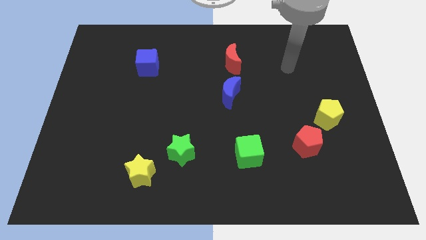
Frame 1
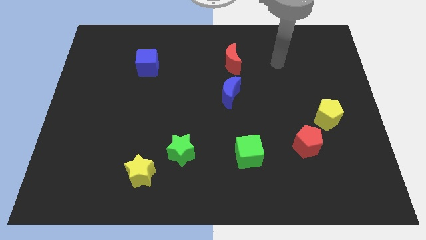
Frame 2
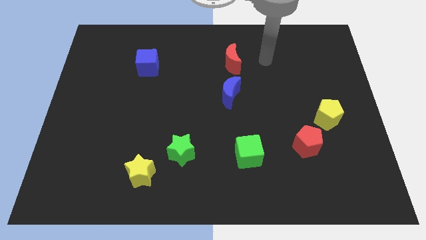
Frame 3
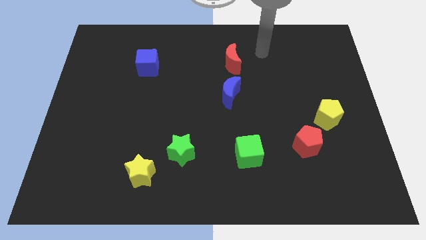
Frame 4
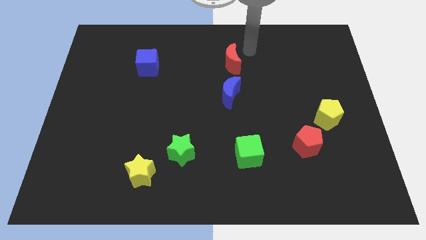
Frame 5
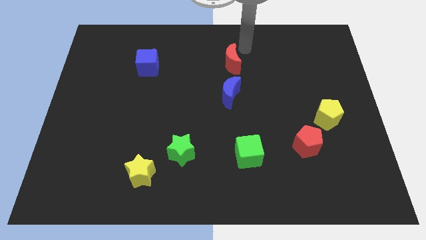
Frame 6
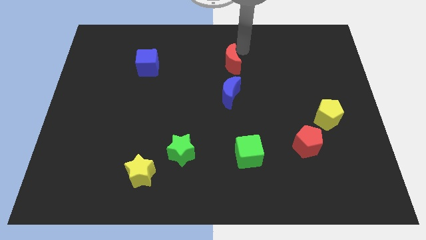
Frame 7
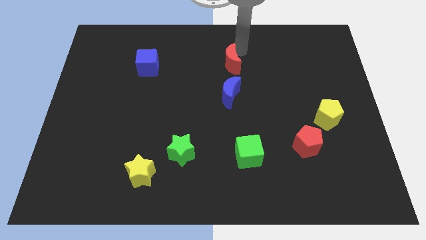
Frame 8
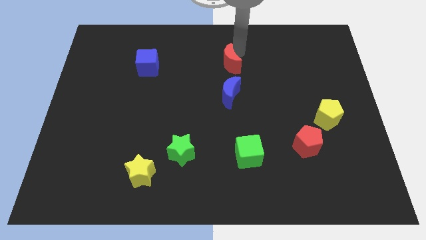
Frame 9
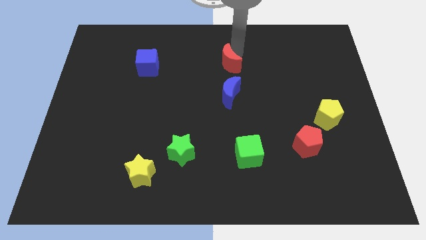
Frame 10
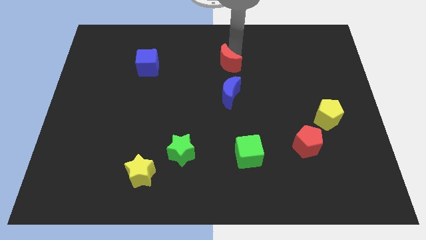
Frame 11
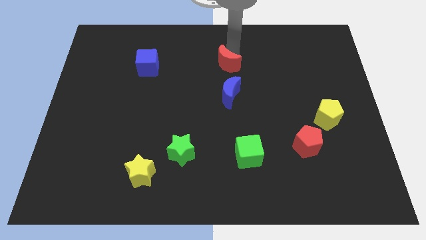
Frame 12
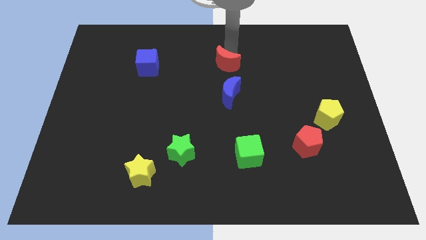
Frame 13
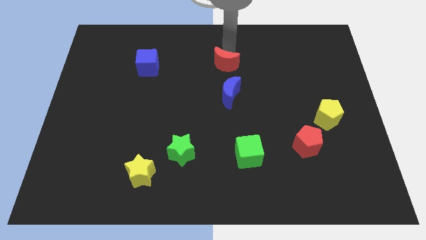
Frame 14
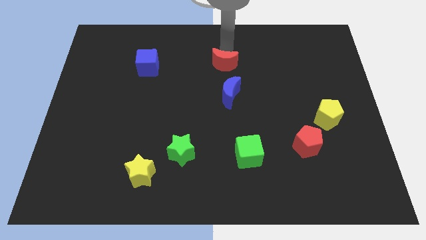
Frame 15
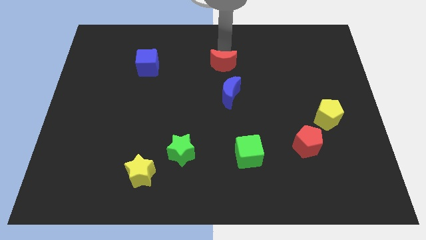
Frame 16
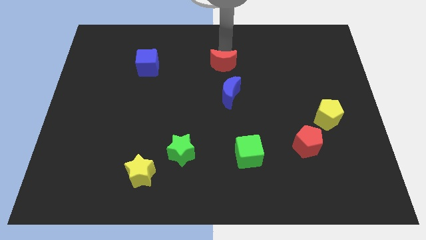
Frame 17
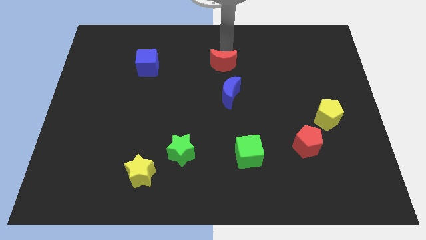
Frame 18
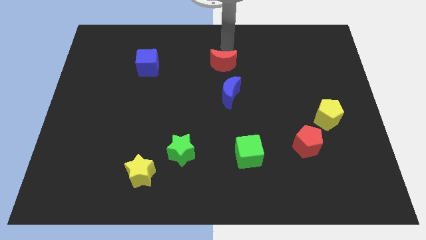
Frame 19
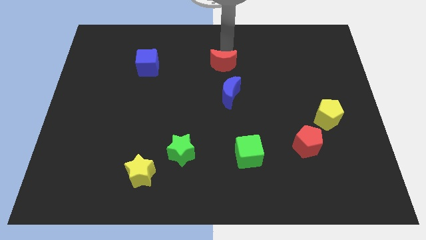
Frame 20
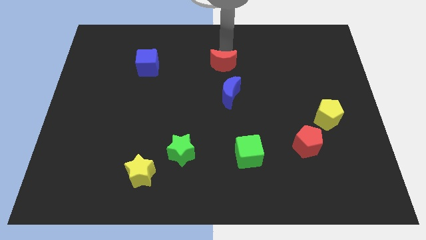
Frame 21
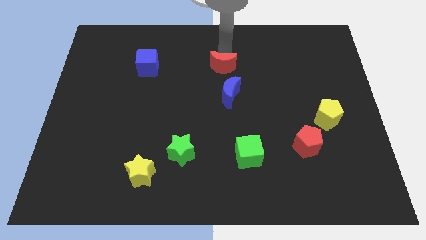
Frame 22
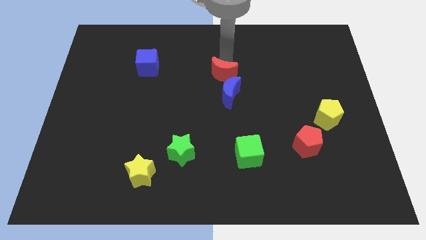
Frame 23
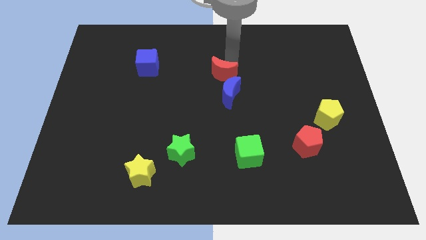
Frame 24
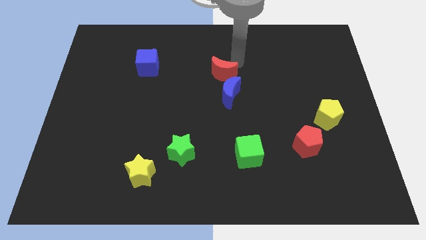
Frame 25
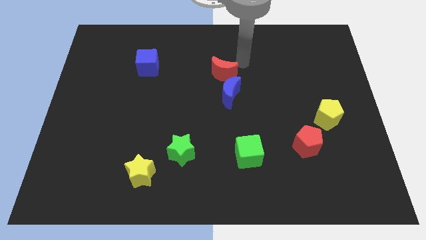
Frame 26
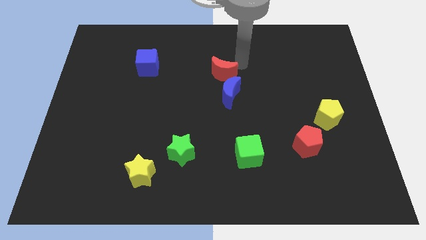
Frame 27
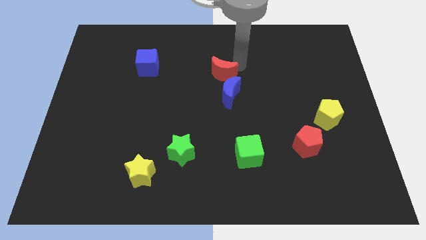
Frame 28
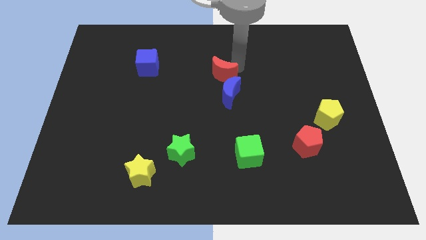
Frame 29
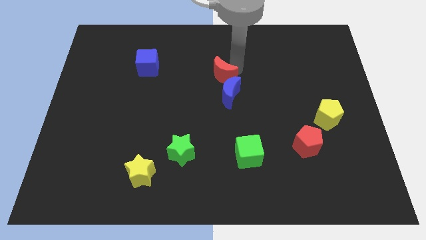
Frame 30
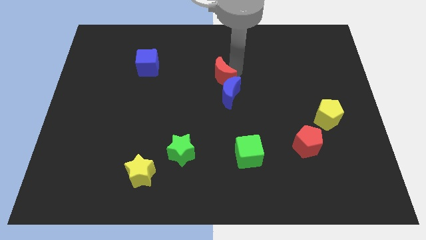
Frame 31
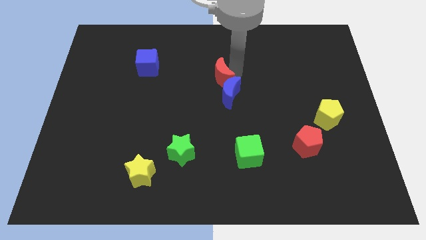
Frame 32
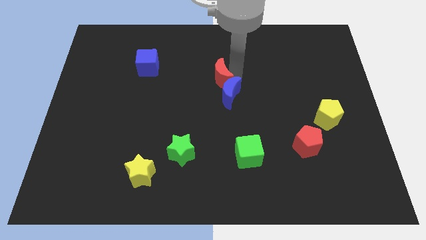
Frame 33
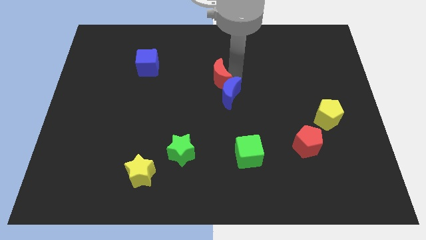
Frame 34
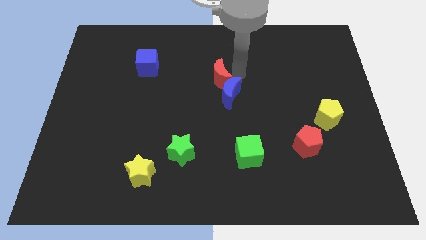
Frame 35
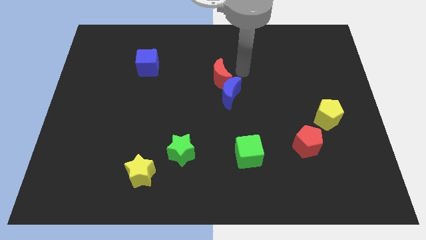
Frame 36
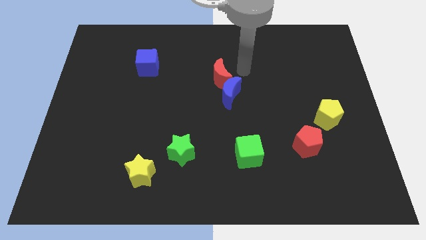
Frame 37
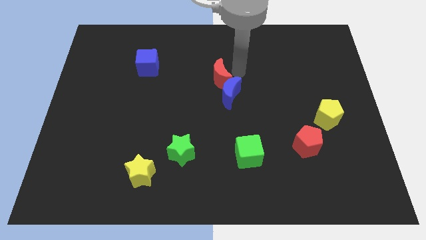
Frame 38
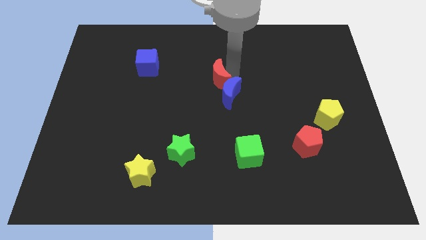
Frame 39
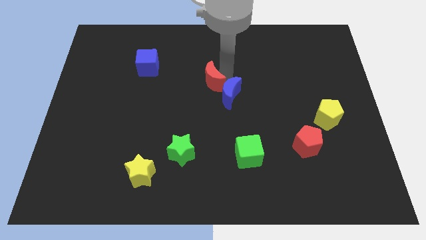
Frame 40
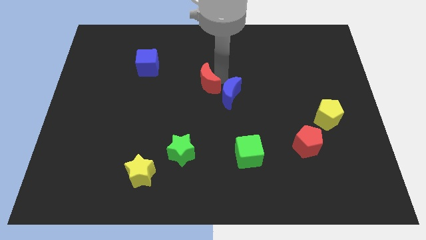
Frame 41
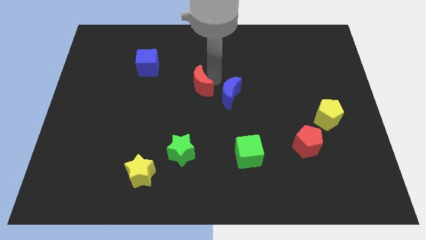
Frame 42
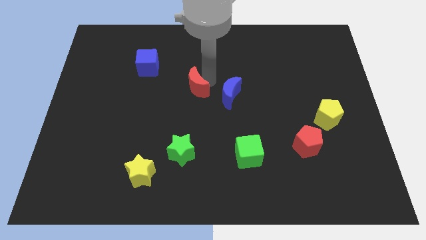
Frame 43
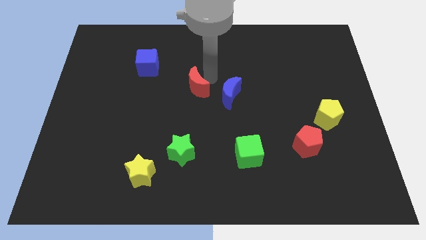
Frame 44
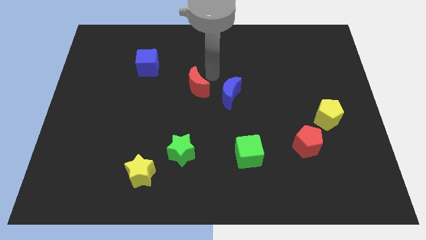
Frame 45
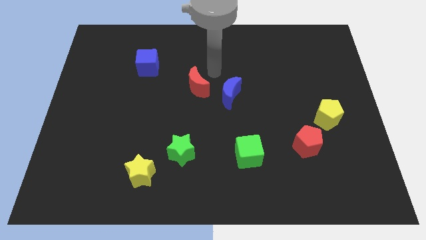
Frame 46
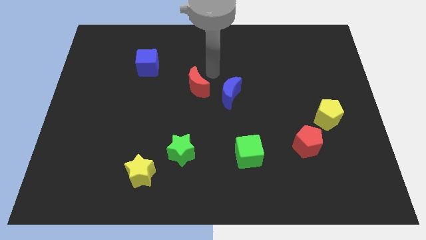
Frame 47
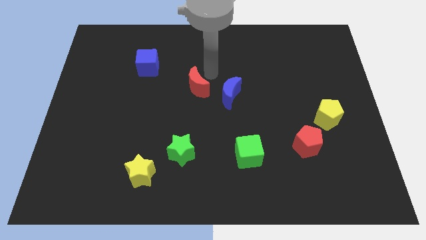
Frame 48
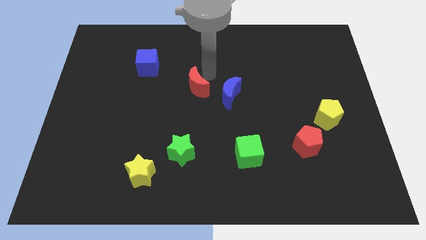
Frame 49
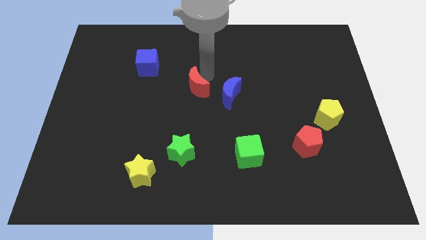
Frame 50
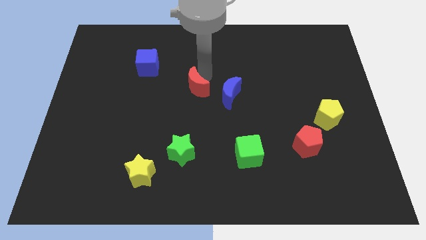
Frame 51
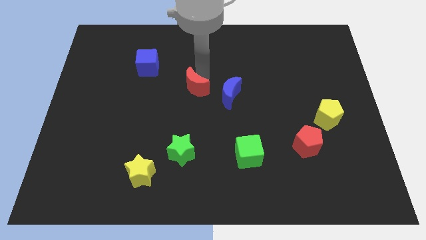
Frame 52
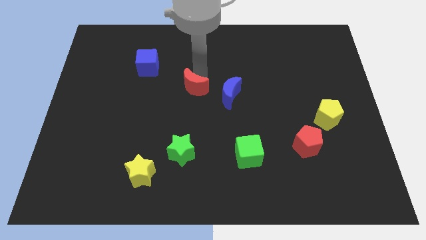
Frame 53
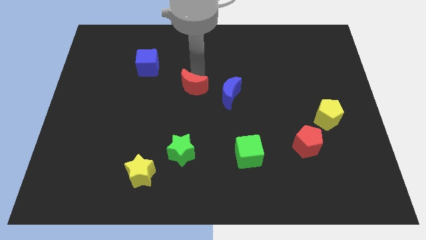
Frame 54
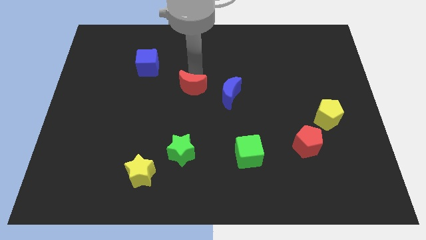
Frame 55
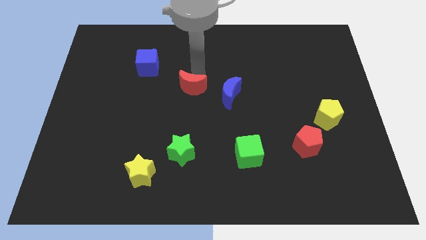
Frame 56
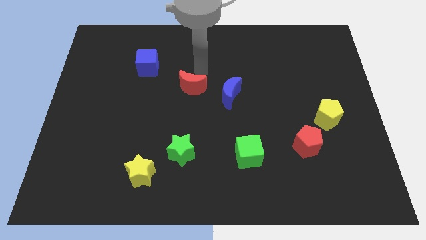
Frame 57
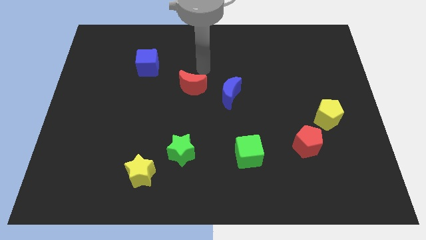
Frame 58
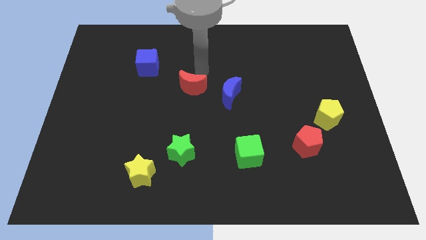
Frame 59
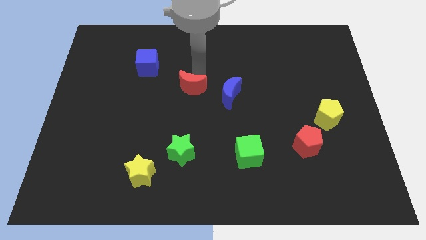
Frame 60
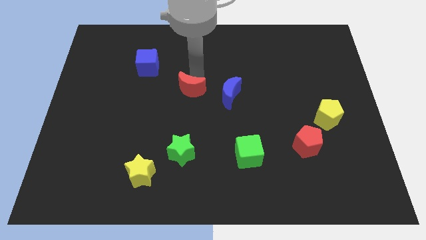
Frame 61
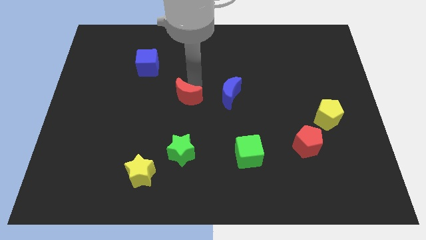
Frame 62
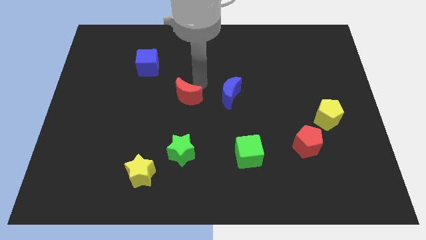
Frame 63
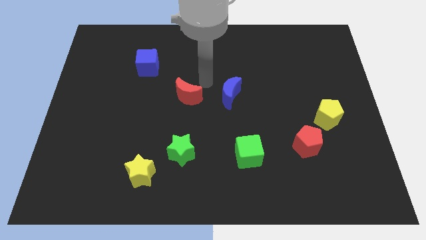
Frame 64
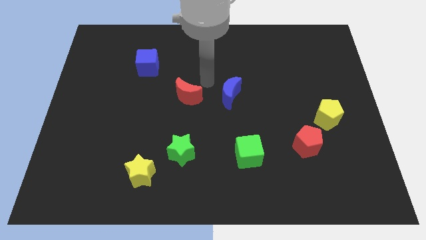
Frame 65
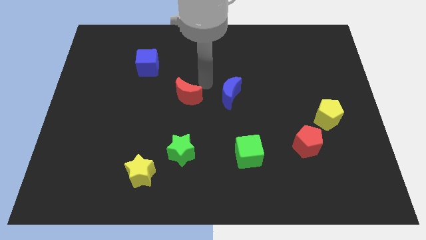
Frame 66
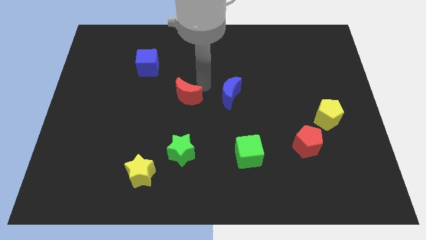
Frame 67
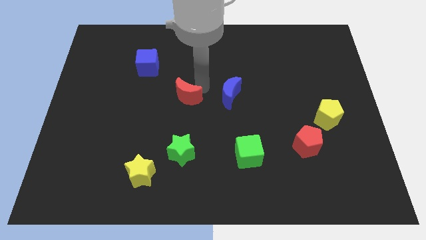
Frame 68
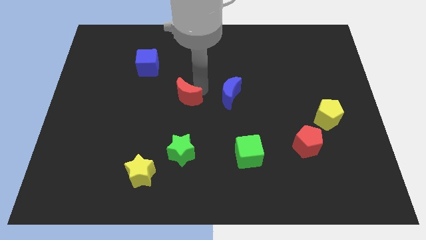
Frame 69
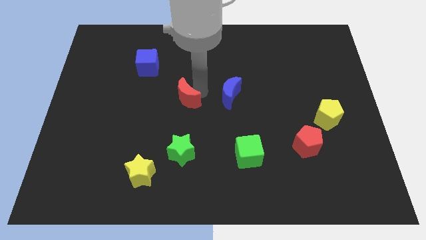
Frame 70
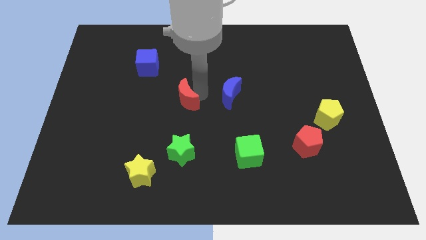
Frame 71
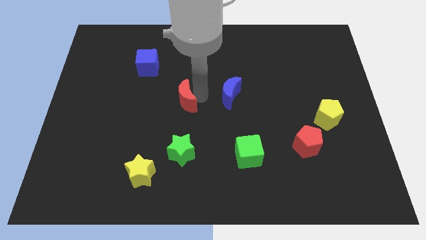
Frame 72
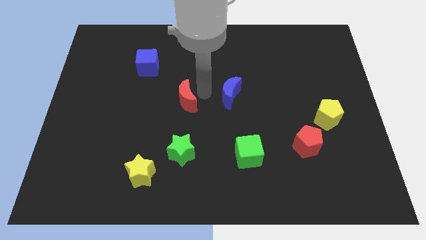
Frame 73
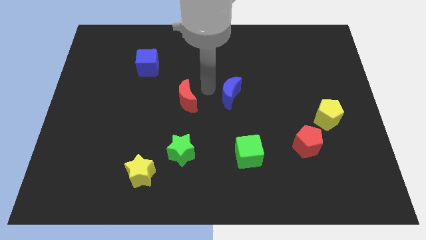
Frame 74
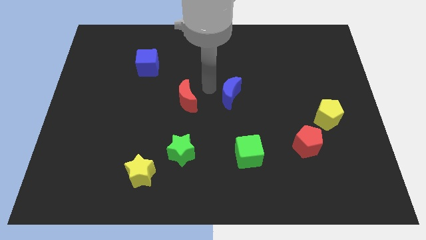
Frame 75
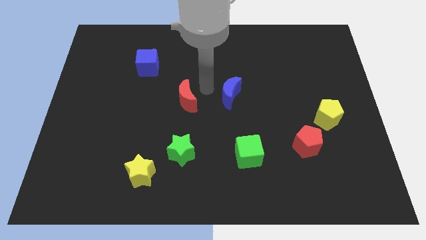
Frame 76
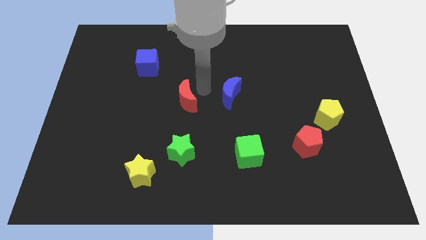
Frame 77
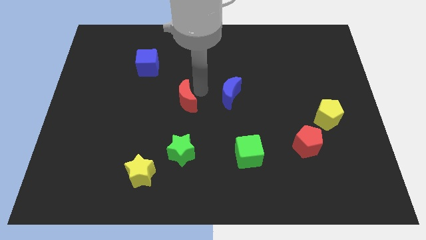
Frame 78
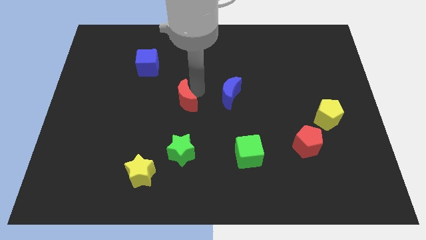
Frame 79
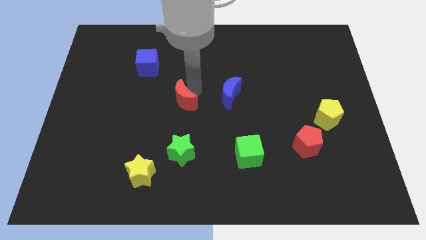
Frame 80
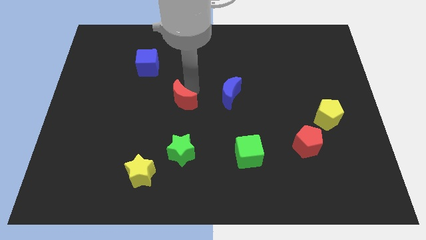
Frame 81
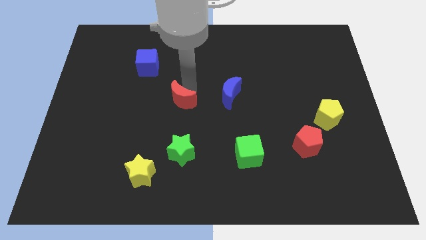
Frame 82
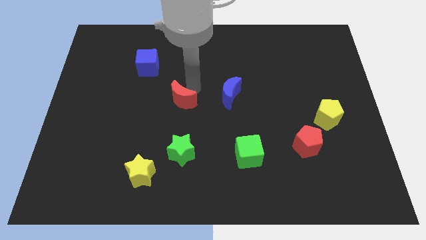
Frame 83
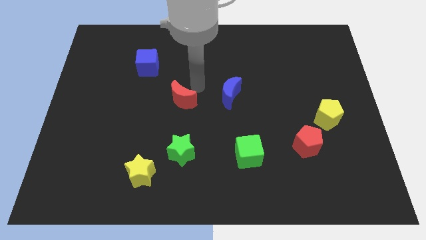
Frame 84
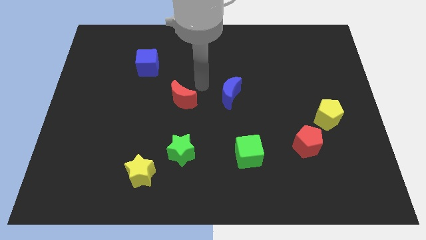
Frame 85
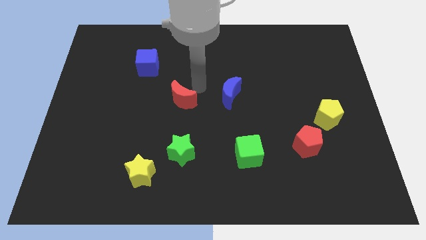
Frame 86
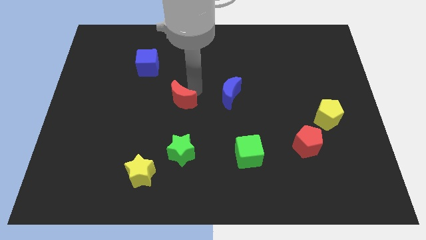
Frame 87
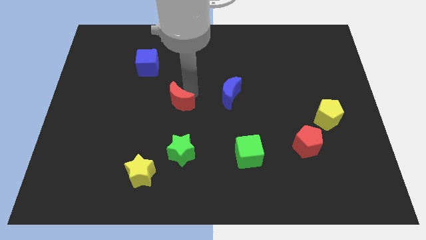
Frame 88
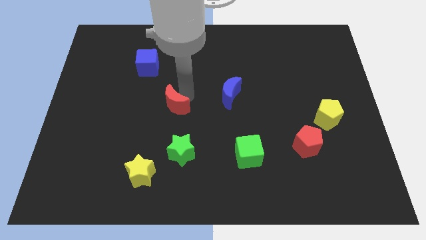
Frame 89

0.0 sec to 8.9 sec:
push the red moon downwards and left diagonally
